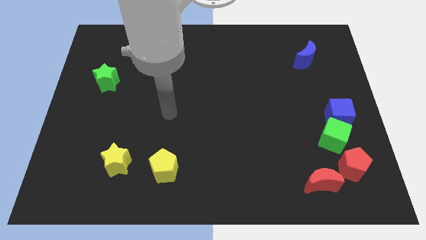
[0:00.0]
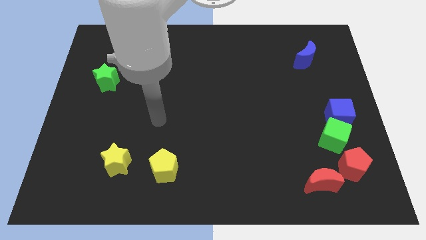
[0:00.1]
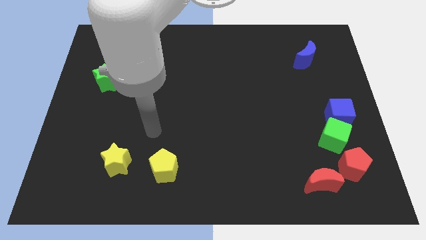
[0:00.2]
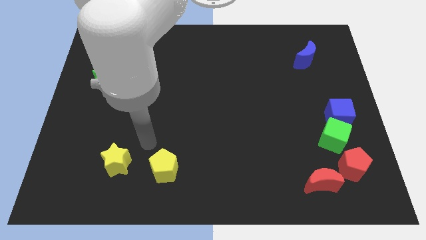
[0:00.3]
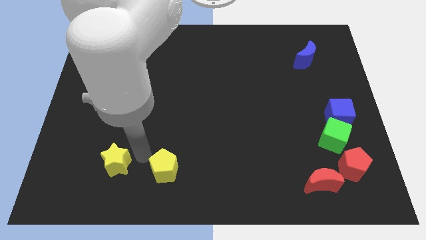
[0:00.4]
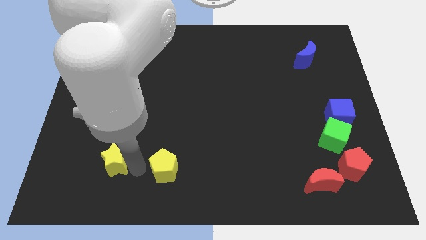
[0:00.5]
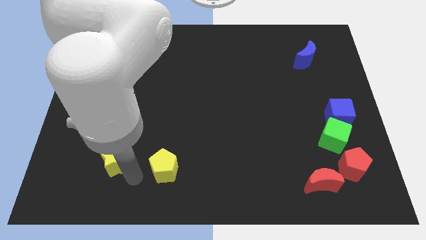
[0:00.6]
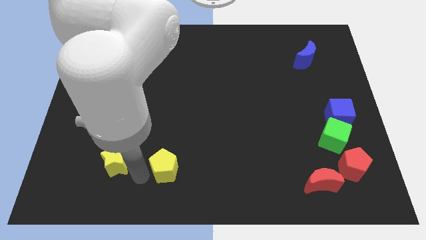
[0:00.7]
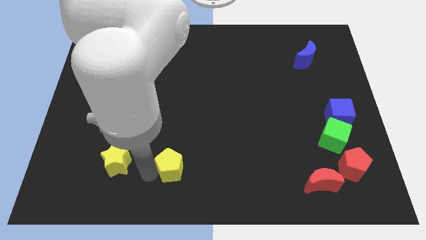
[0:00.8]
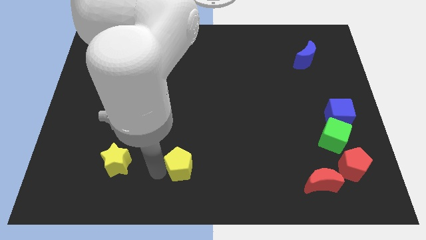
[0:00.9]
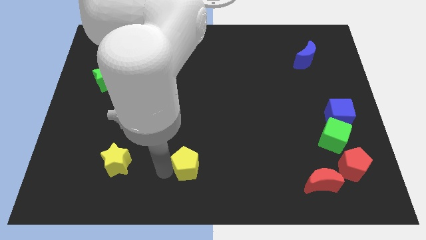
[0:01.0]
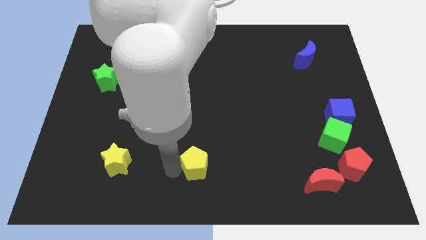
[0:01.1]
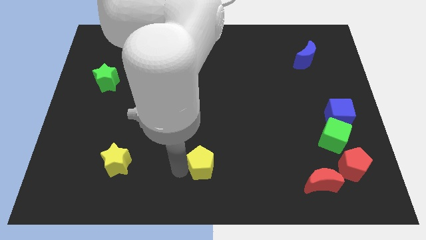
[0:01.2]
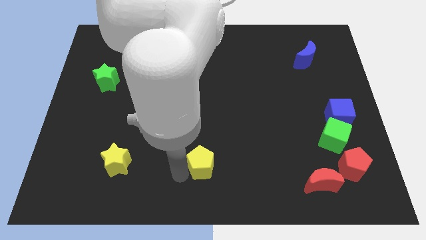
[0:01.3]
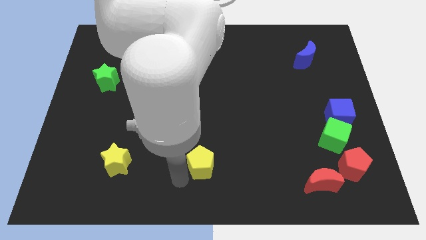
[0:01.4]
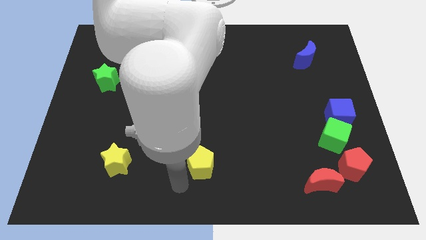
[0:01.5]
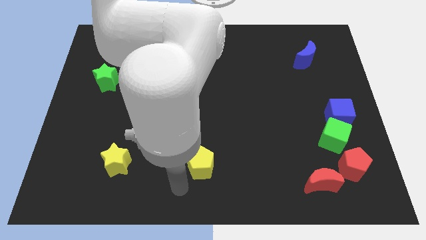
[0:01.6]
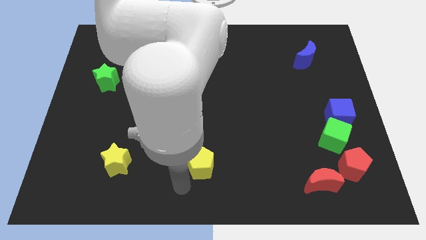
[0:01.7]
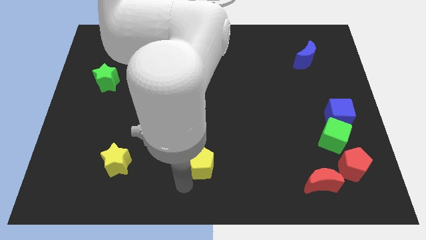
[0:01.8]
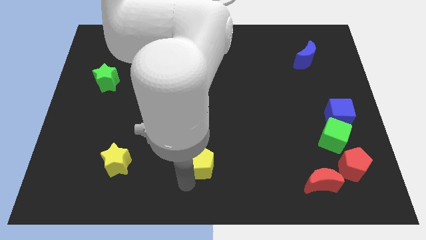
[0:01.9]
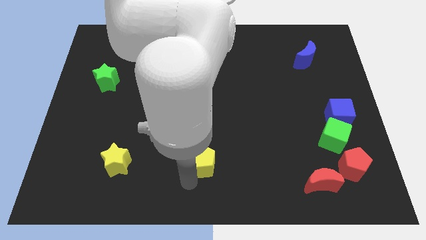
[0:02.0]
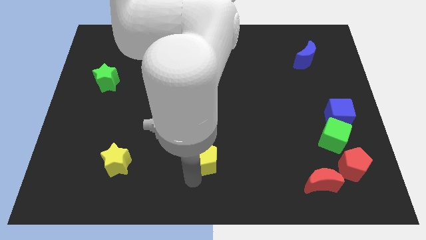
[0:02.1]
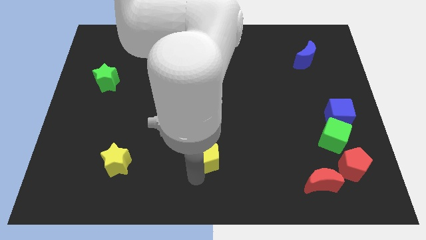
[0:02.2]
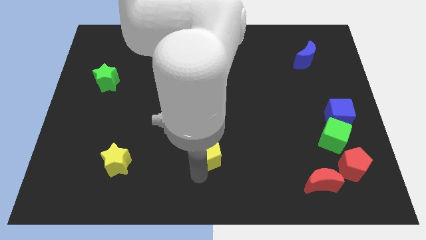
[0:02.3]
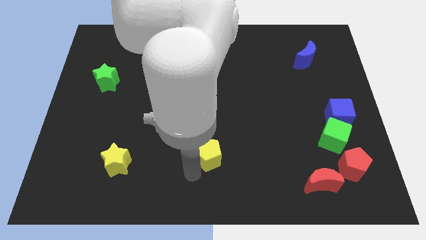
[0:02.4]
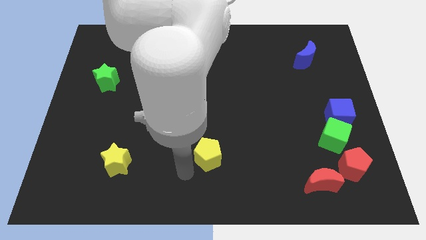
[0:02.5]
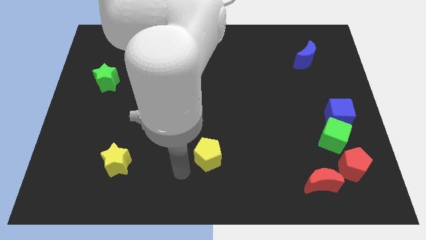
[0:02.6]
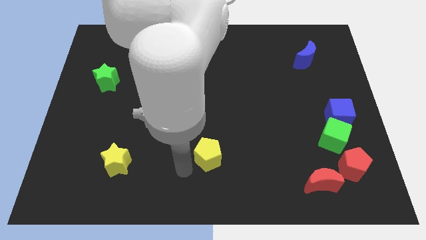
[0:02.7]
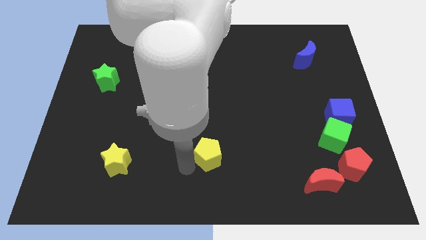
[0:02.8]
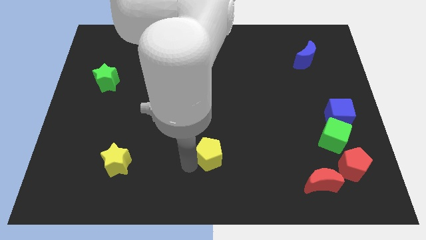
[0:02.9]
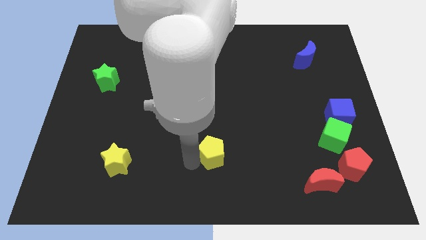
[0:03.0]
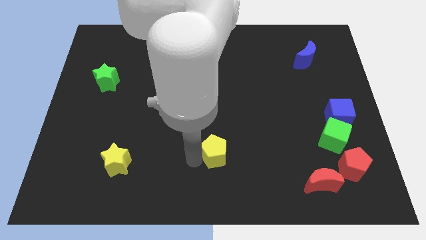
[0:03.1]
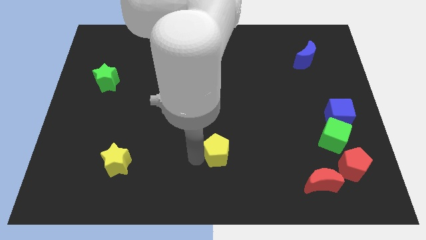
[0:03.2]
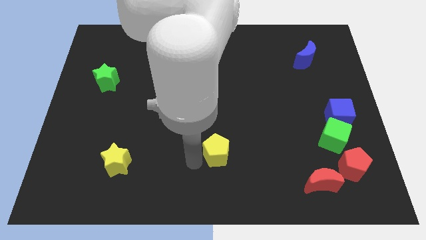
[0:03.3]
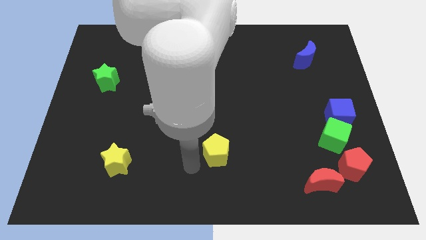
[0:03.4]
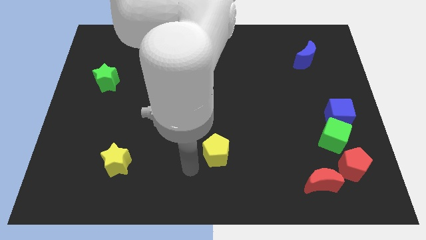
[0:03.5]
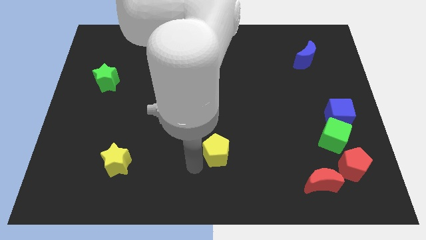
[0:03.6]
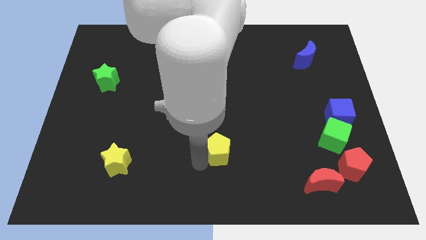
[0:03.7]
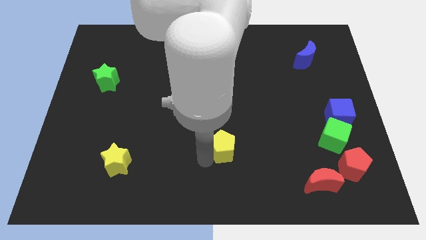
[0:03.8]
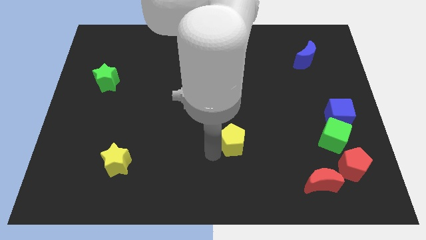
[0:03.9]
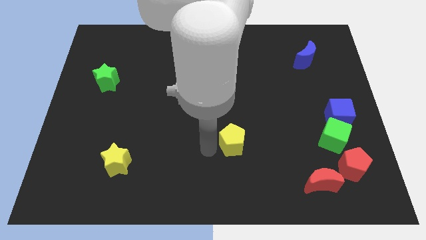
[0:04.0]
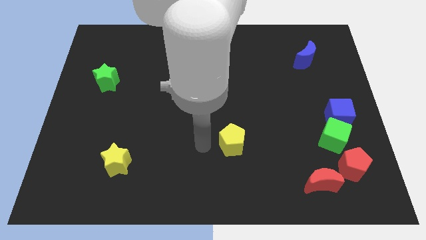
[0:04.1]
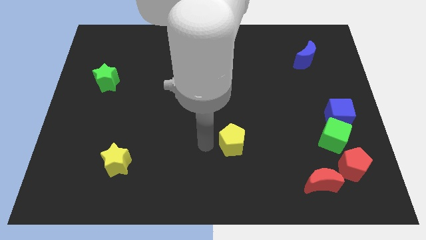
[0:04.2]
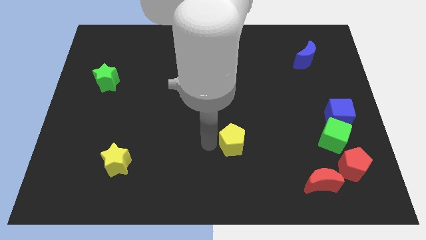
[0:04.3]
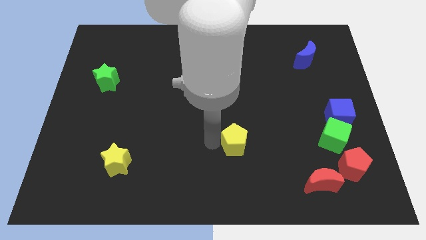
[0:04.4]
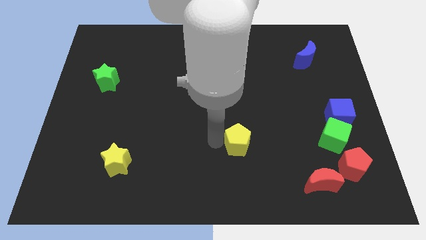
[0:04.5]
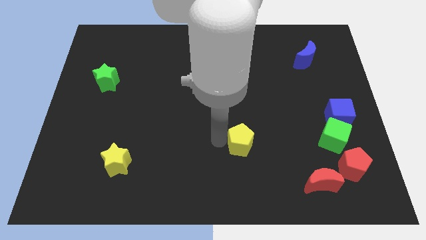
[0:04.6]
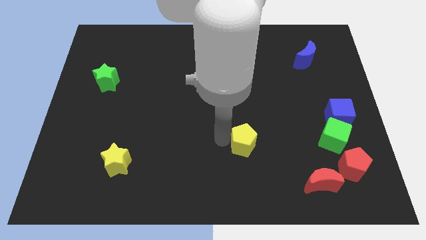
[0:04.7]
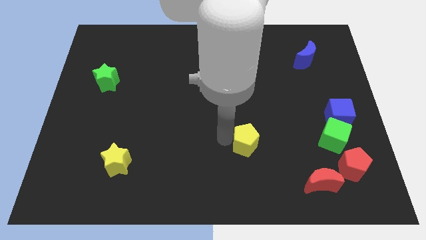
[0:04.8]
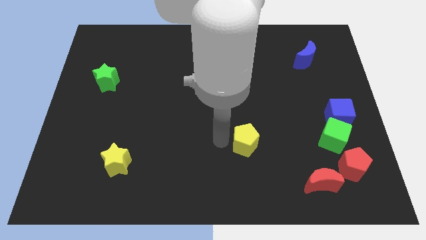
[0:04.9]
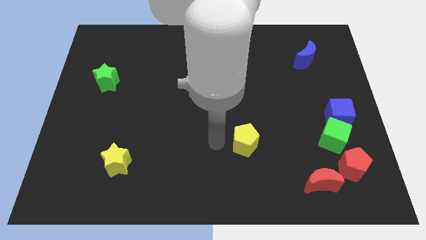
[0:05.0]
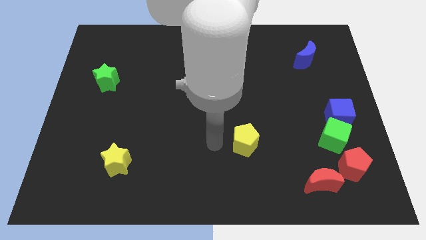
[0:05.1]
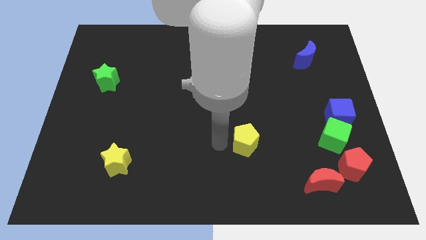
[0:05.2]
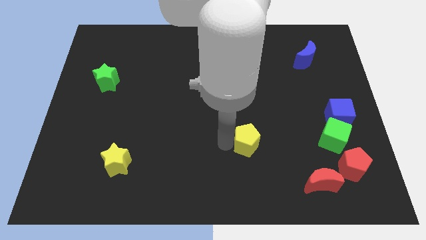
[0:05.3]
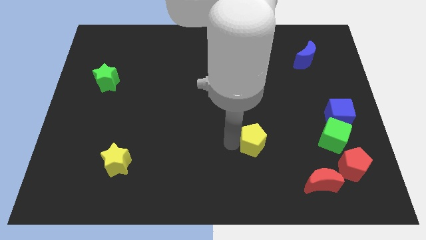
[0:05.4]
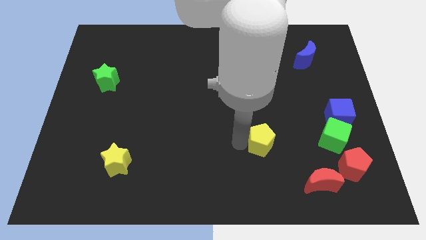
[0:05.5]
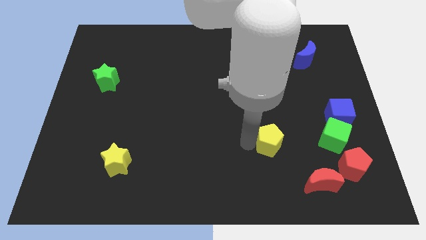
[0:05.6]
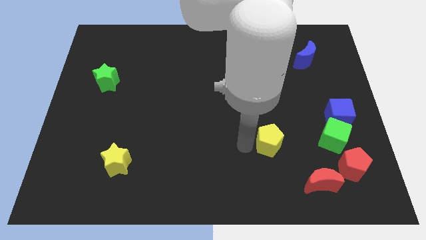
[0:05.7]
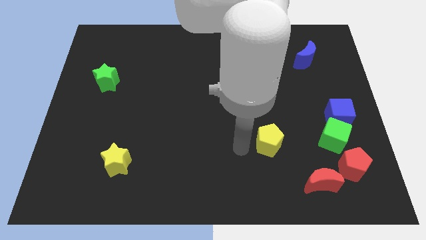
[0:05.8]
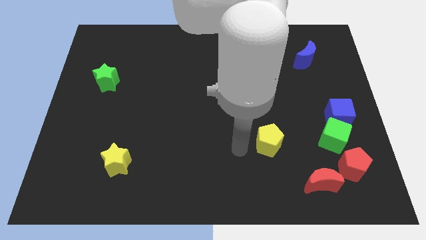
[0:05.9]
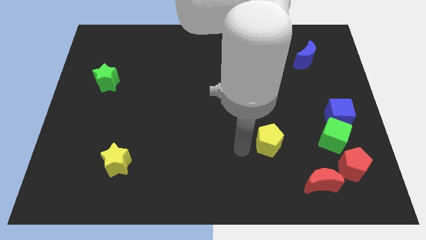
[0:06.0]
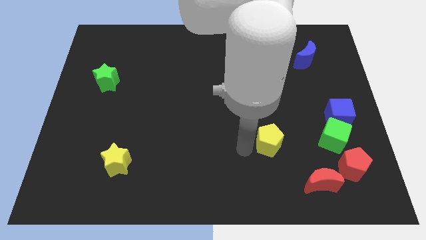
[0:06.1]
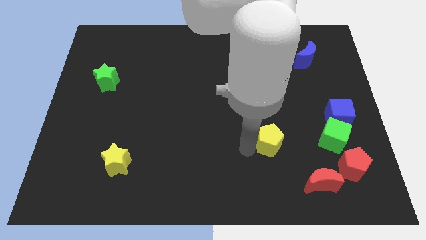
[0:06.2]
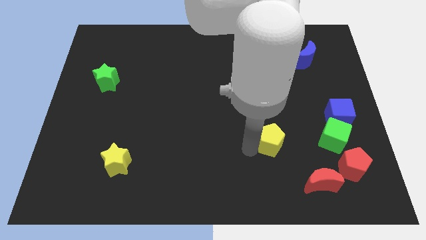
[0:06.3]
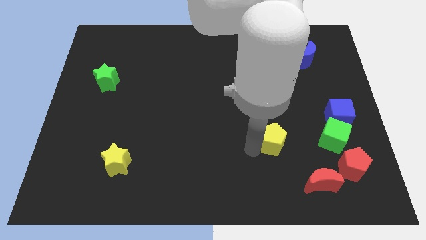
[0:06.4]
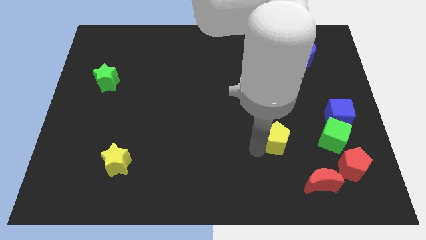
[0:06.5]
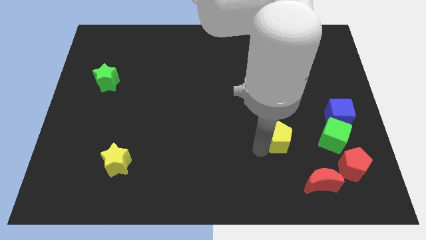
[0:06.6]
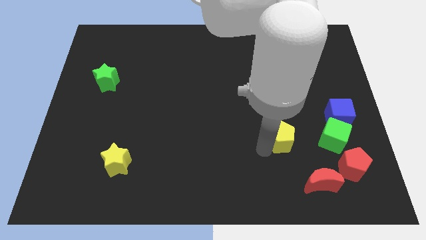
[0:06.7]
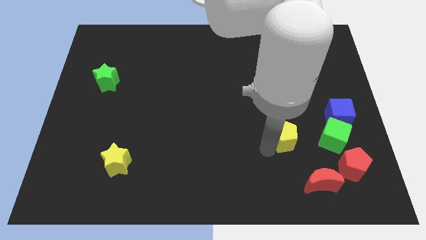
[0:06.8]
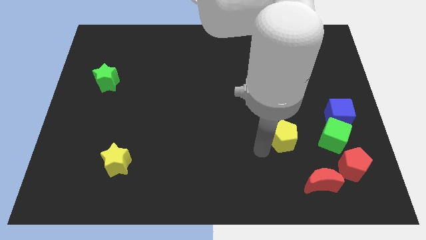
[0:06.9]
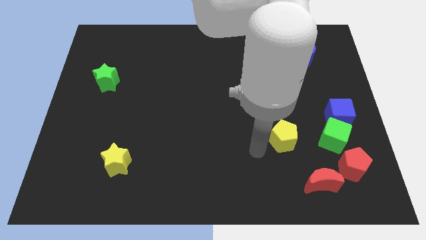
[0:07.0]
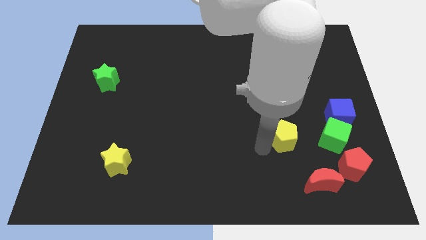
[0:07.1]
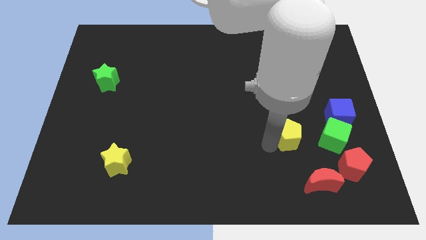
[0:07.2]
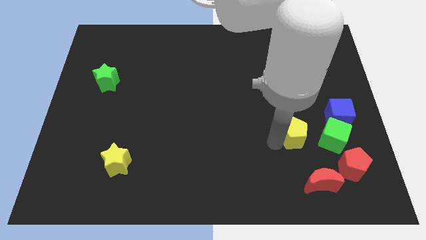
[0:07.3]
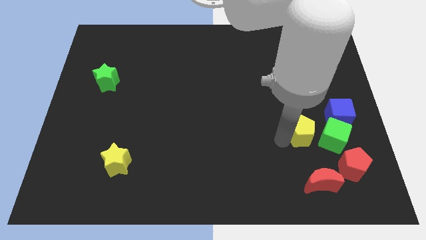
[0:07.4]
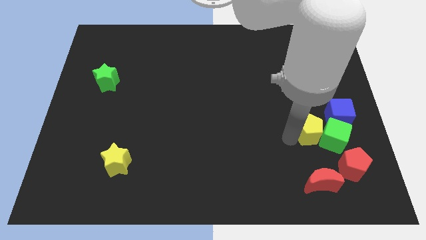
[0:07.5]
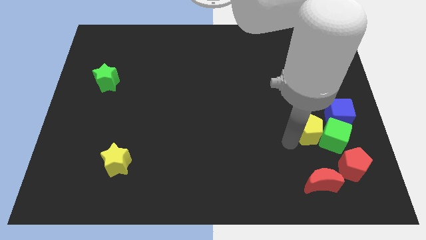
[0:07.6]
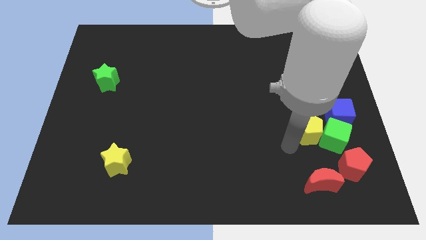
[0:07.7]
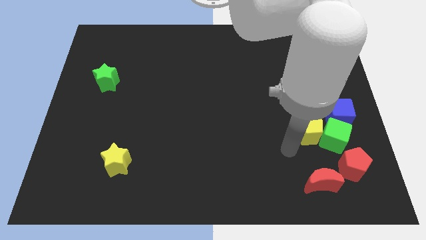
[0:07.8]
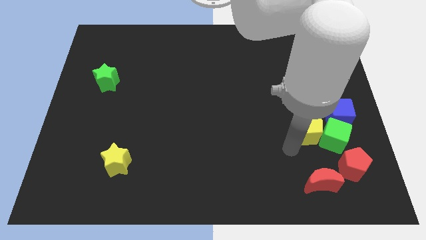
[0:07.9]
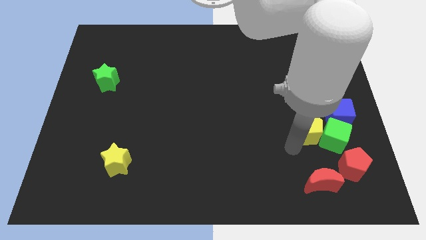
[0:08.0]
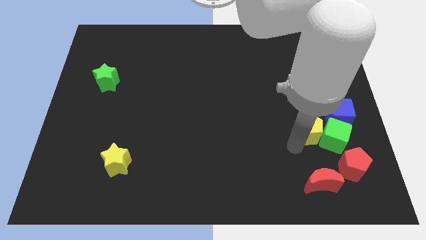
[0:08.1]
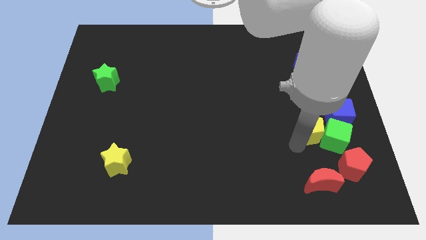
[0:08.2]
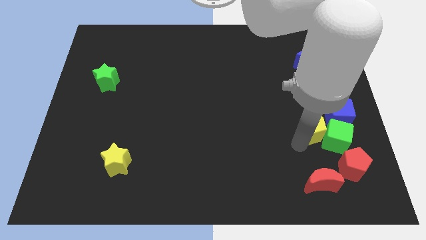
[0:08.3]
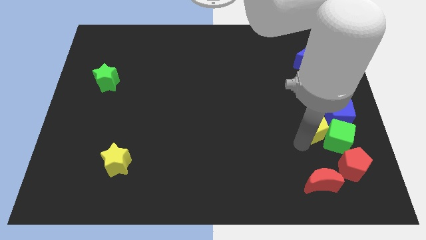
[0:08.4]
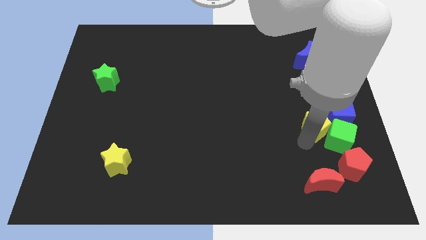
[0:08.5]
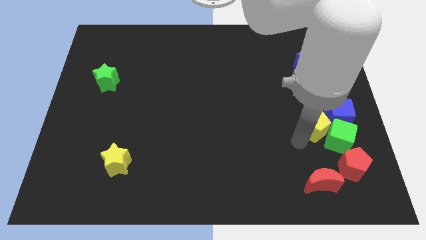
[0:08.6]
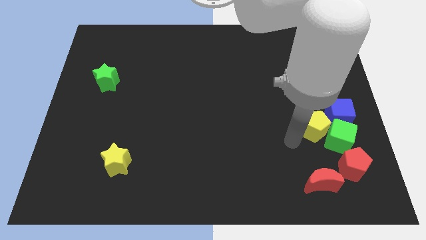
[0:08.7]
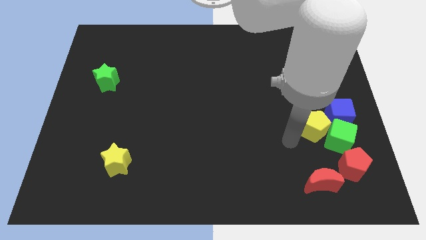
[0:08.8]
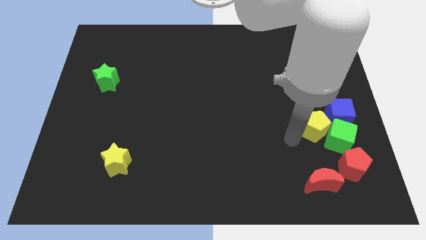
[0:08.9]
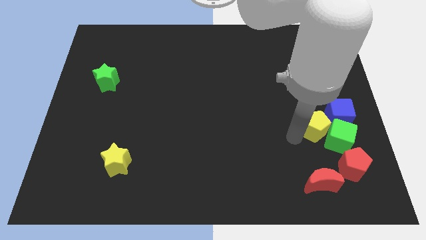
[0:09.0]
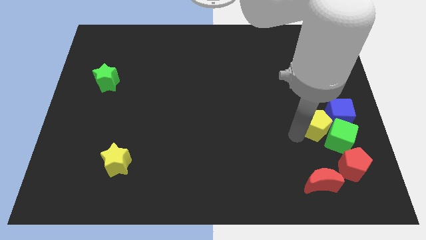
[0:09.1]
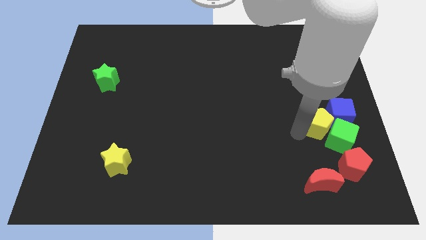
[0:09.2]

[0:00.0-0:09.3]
put the yellow pentagon to the blue cube
